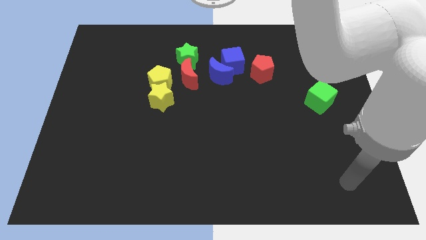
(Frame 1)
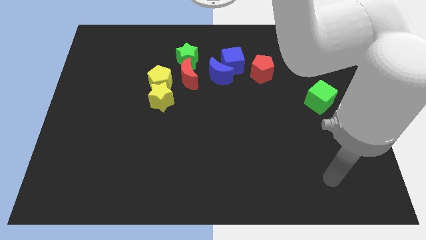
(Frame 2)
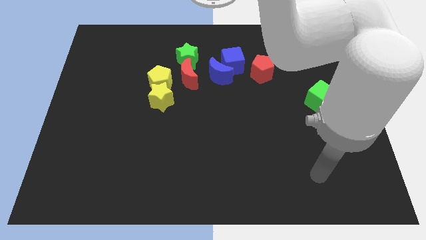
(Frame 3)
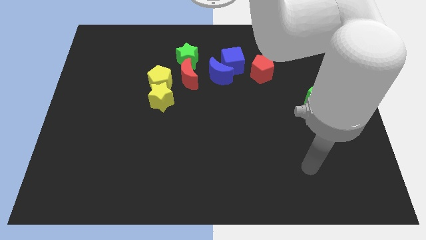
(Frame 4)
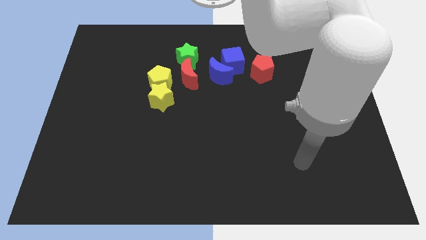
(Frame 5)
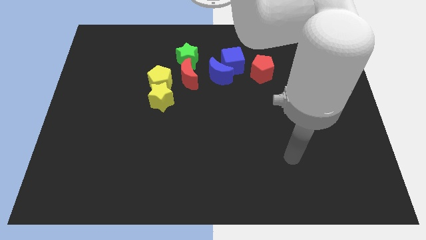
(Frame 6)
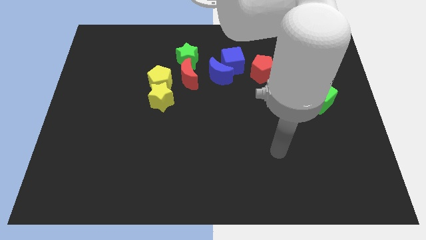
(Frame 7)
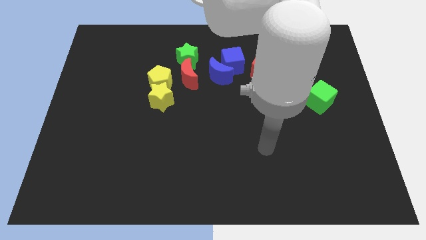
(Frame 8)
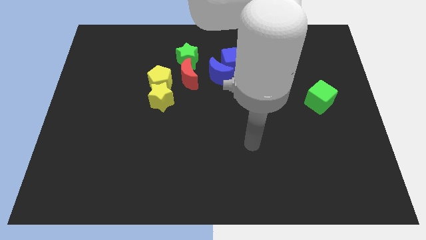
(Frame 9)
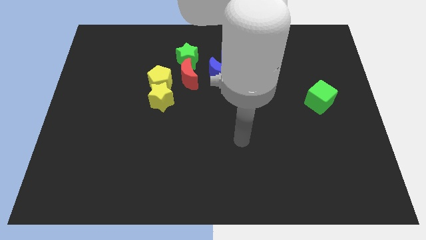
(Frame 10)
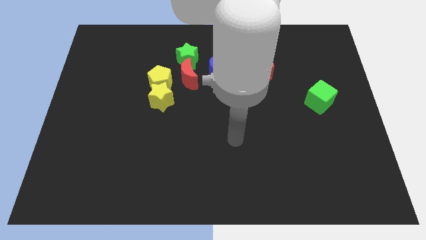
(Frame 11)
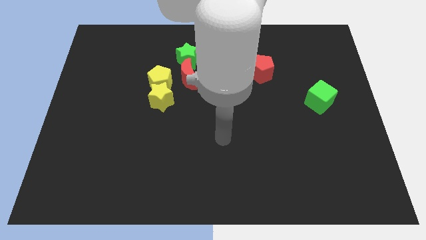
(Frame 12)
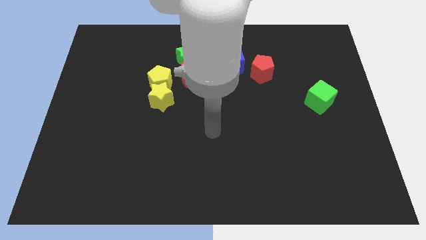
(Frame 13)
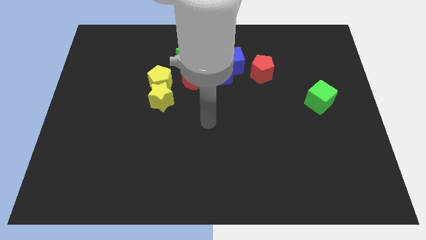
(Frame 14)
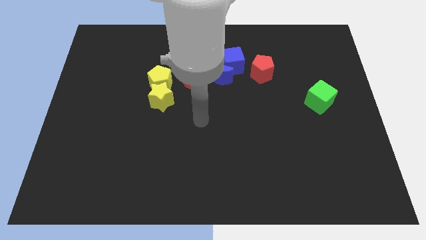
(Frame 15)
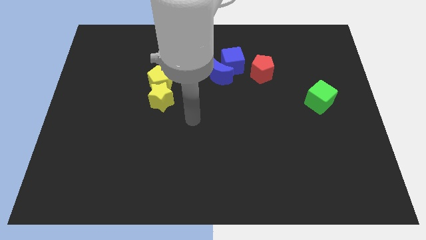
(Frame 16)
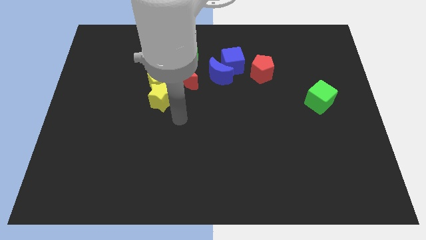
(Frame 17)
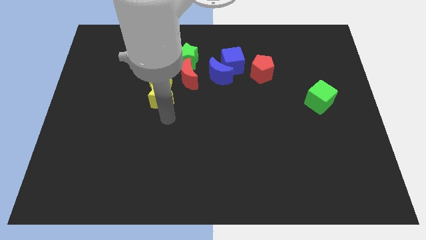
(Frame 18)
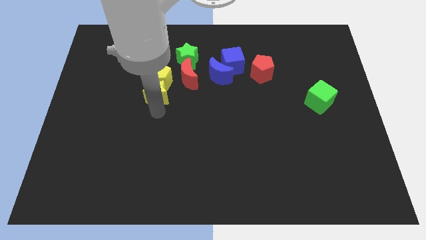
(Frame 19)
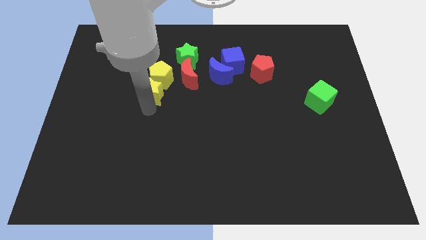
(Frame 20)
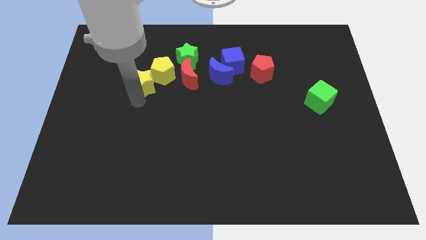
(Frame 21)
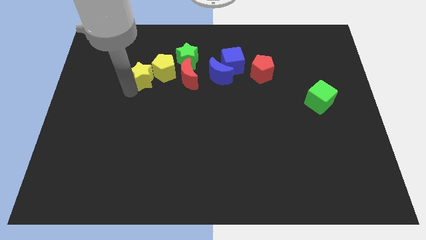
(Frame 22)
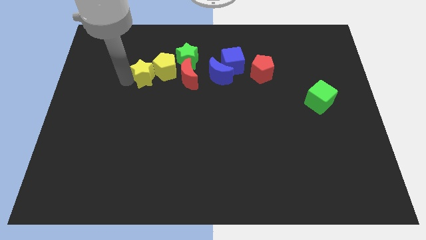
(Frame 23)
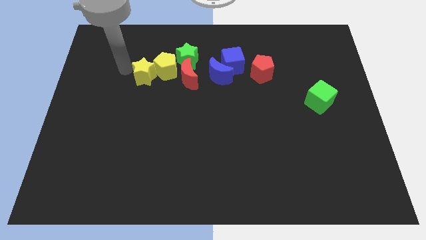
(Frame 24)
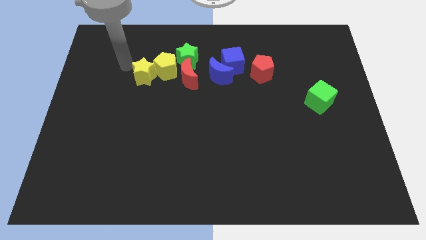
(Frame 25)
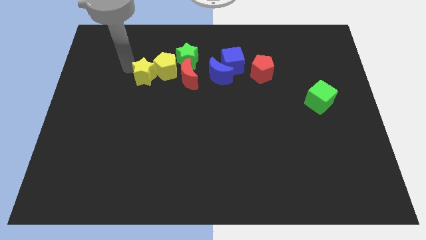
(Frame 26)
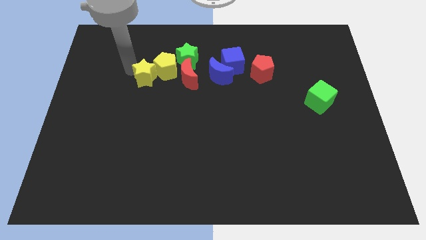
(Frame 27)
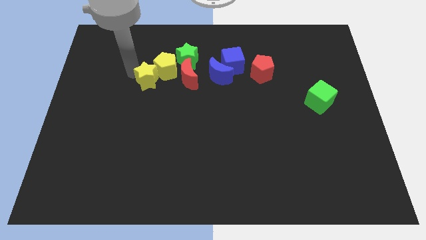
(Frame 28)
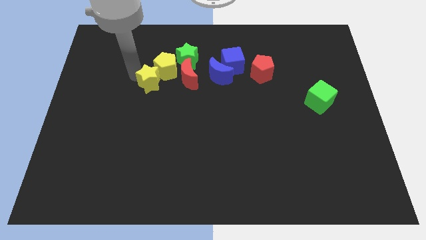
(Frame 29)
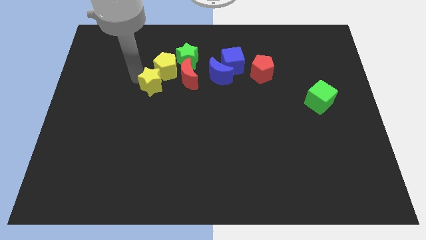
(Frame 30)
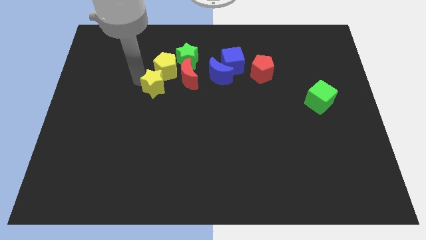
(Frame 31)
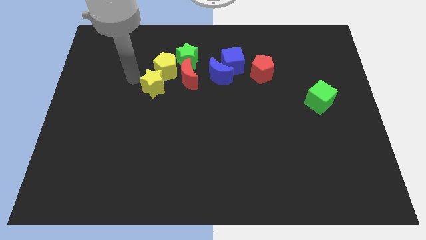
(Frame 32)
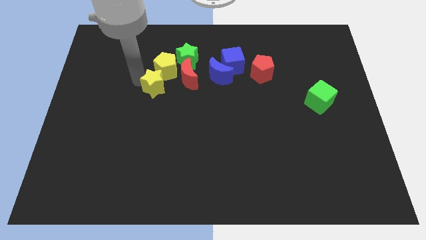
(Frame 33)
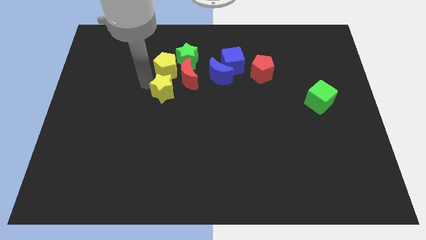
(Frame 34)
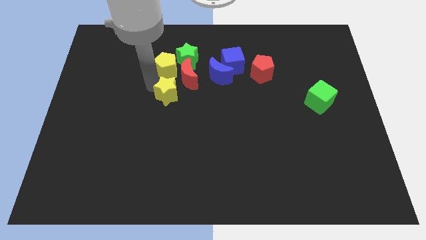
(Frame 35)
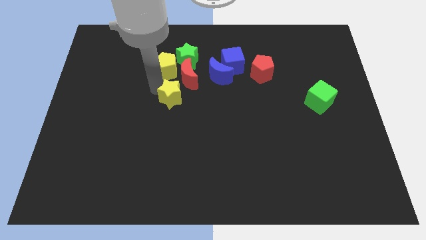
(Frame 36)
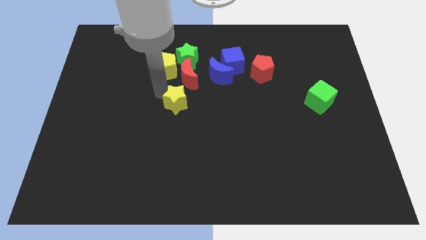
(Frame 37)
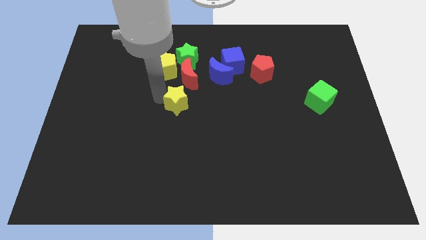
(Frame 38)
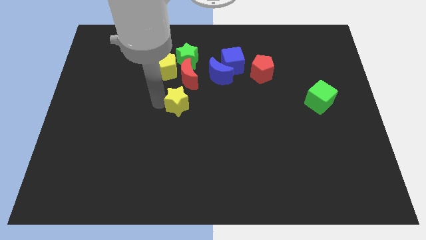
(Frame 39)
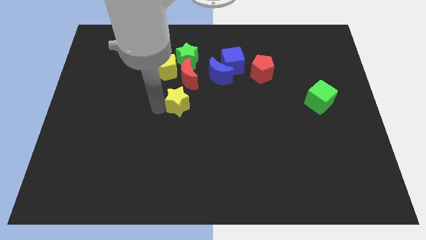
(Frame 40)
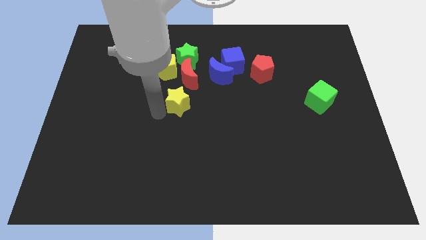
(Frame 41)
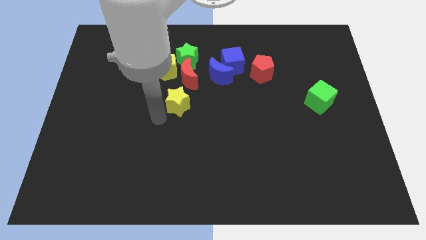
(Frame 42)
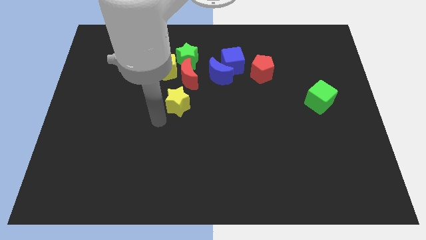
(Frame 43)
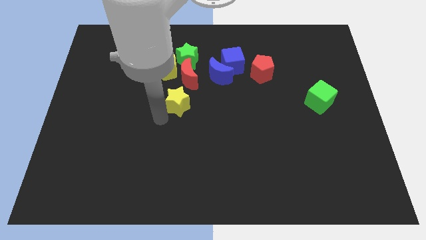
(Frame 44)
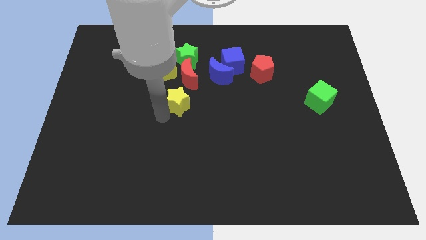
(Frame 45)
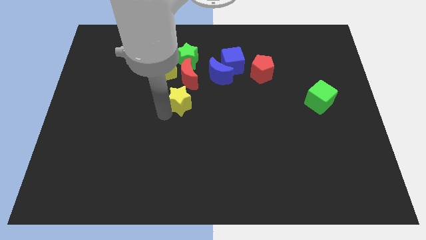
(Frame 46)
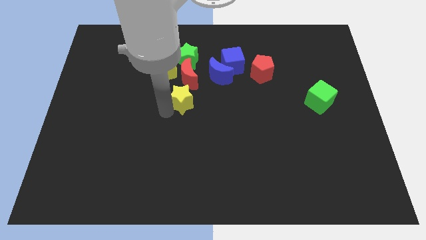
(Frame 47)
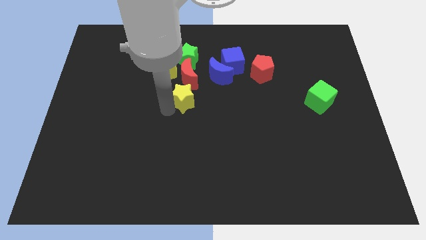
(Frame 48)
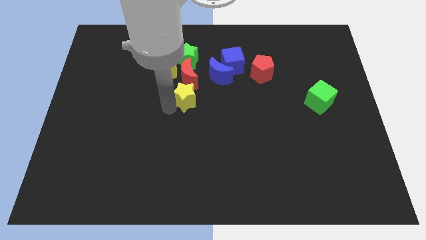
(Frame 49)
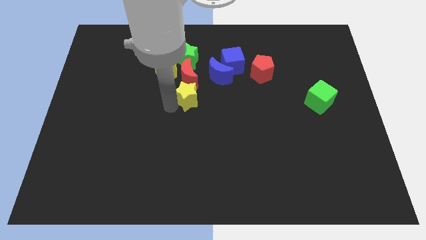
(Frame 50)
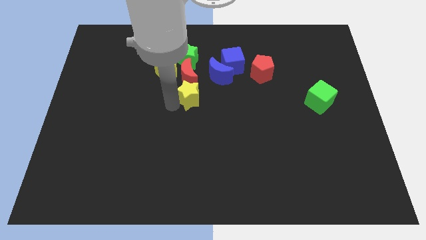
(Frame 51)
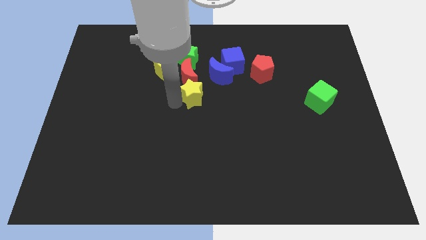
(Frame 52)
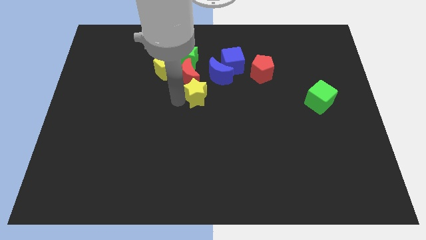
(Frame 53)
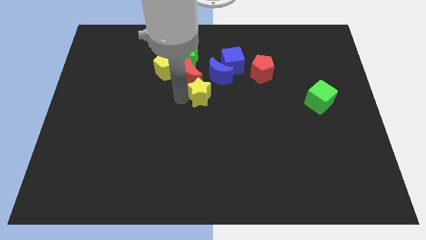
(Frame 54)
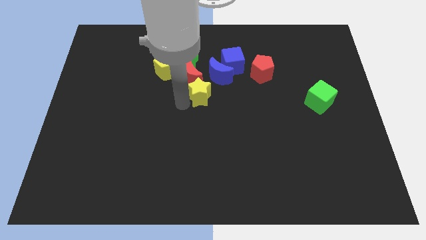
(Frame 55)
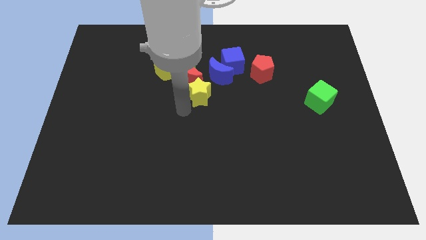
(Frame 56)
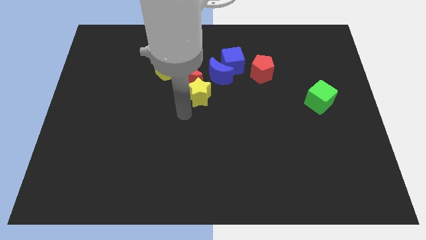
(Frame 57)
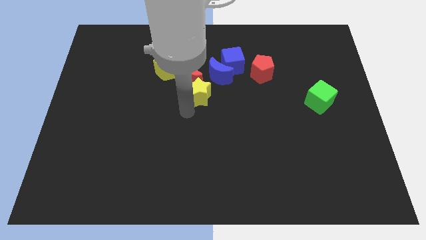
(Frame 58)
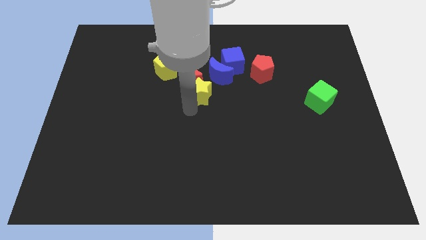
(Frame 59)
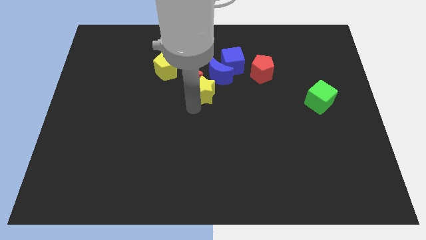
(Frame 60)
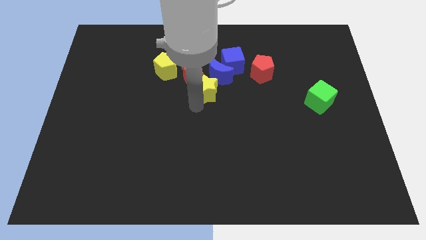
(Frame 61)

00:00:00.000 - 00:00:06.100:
move the yellow star close to the blue moon

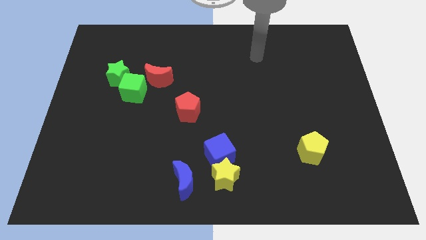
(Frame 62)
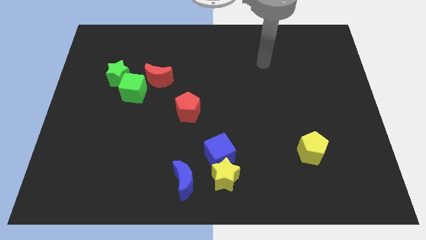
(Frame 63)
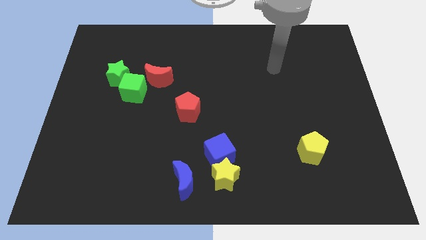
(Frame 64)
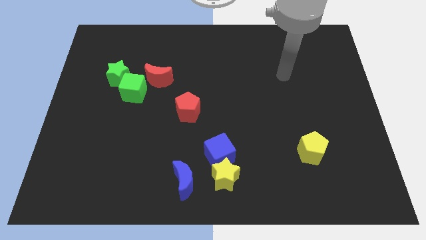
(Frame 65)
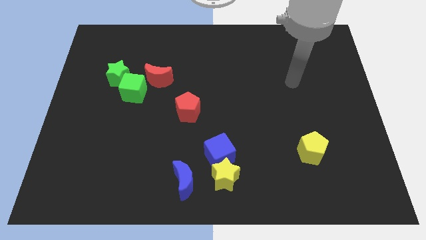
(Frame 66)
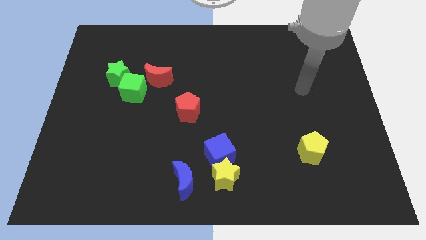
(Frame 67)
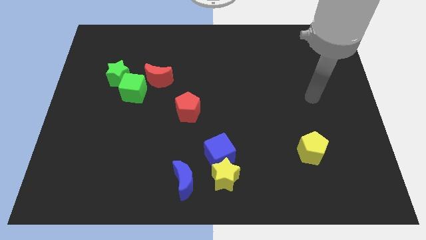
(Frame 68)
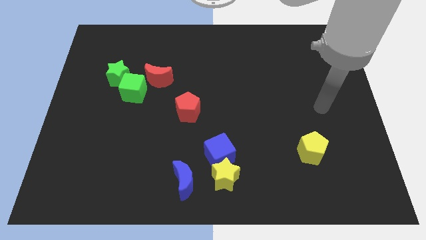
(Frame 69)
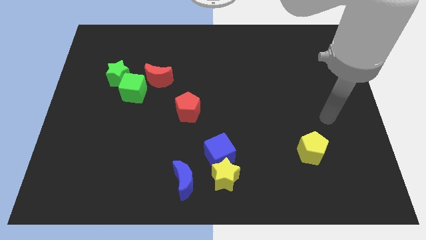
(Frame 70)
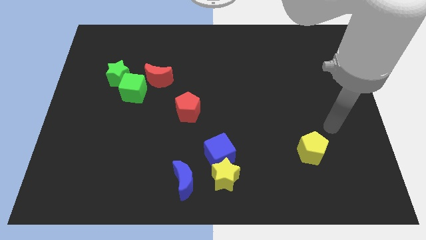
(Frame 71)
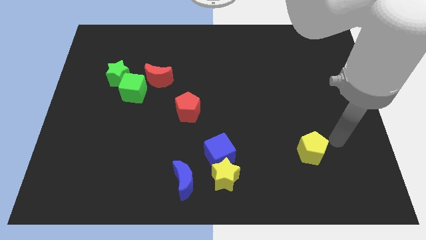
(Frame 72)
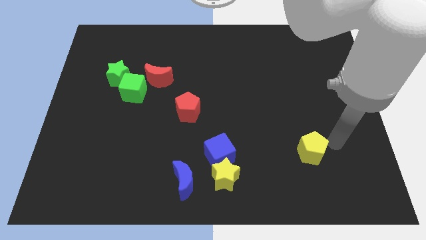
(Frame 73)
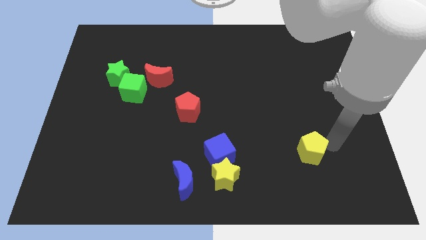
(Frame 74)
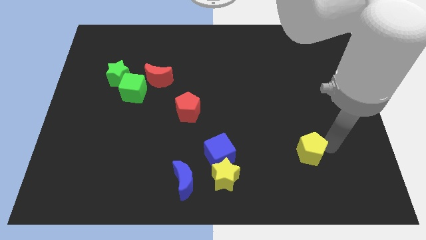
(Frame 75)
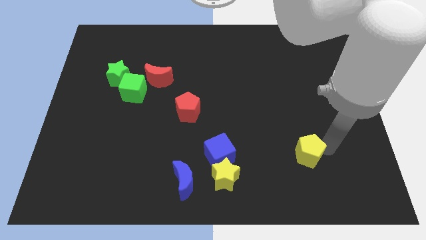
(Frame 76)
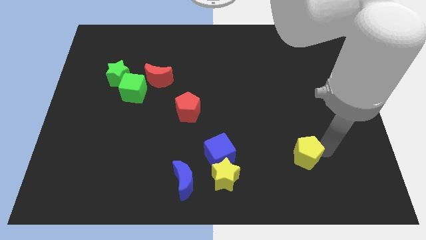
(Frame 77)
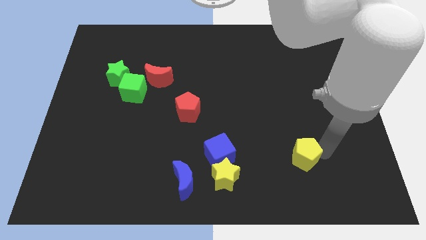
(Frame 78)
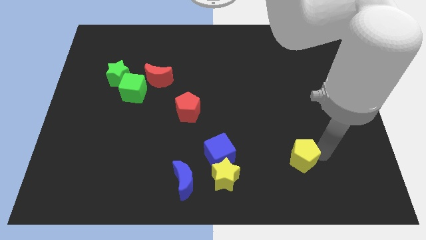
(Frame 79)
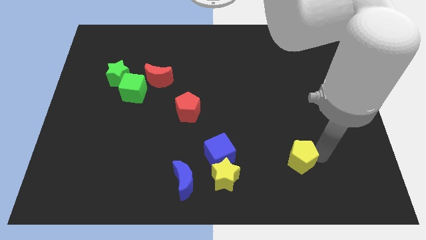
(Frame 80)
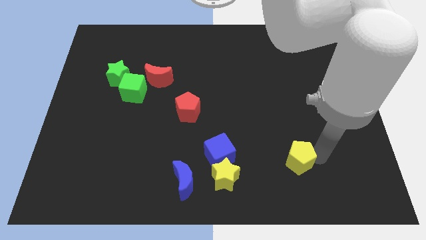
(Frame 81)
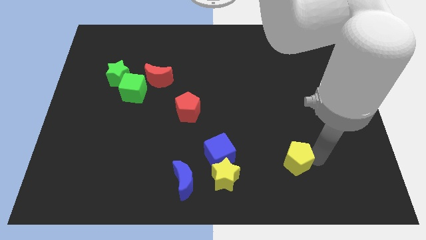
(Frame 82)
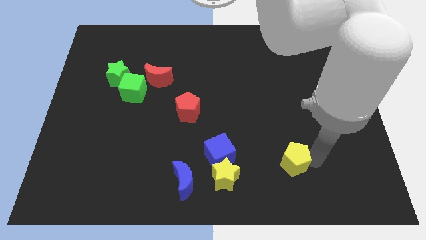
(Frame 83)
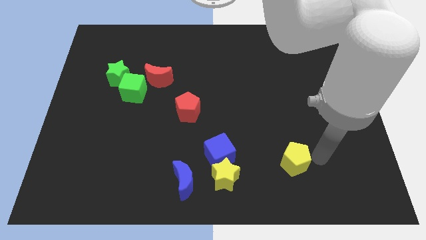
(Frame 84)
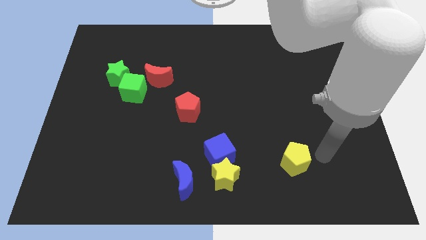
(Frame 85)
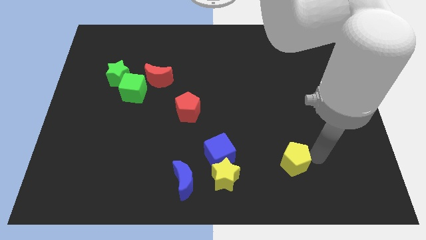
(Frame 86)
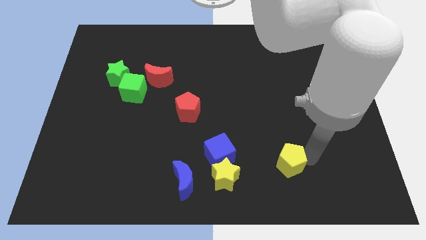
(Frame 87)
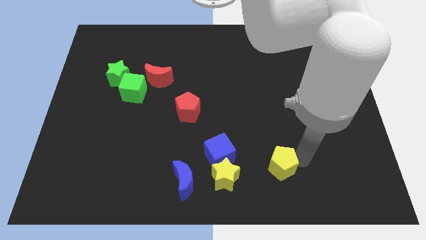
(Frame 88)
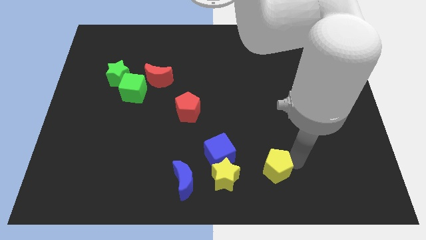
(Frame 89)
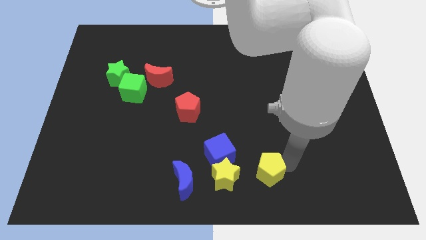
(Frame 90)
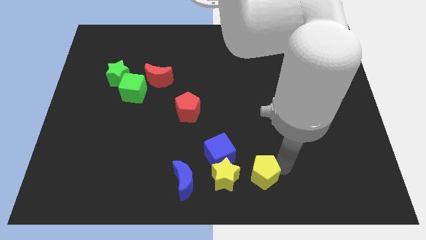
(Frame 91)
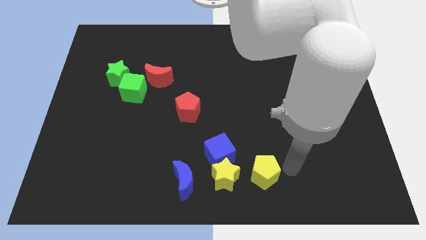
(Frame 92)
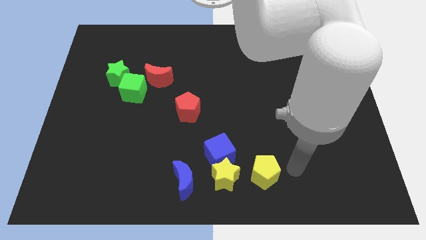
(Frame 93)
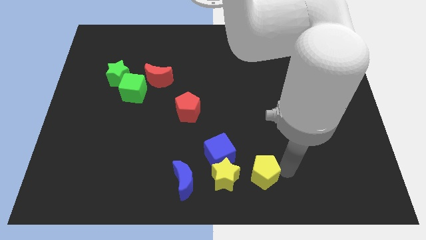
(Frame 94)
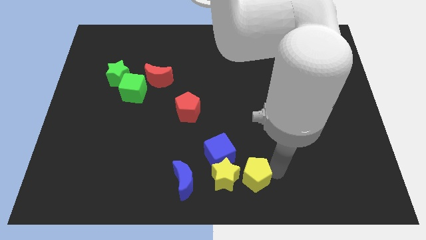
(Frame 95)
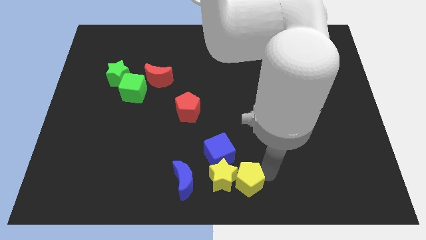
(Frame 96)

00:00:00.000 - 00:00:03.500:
slide the yellow pentagon next to the yellow star
